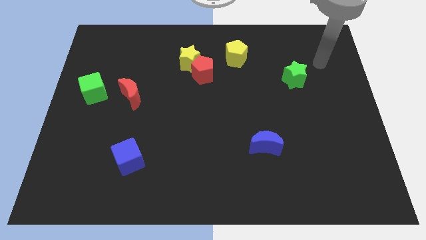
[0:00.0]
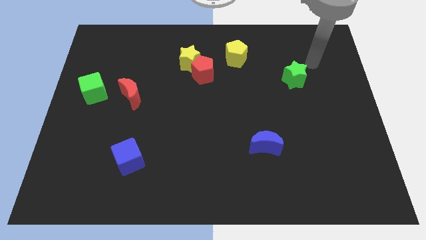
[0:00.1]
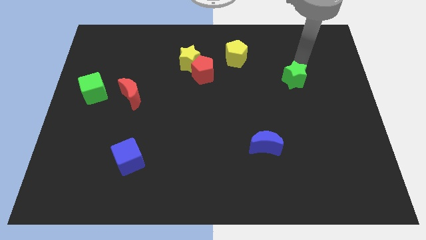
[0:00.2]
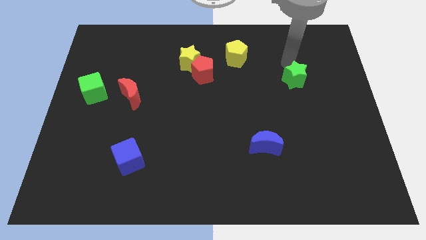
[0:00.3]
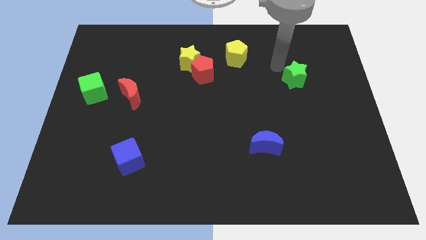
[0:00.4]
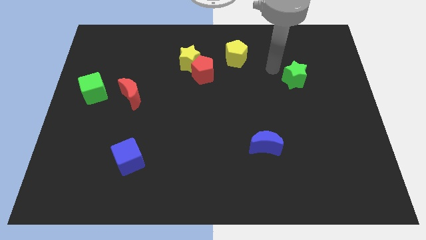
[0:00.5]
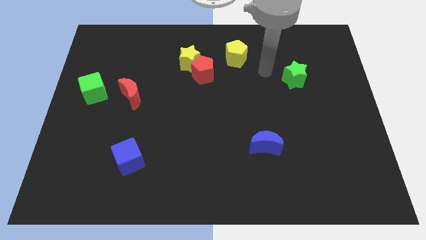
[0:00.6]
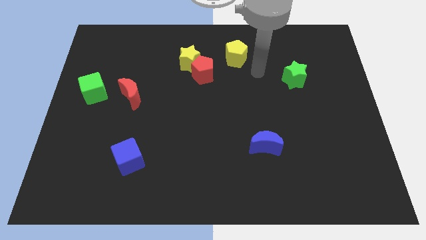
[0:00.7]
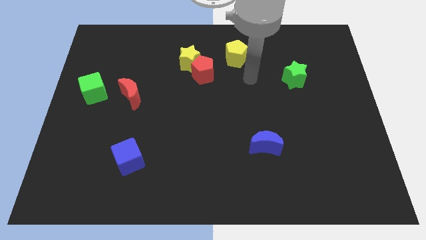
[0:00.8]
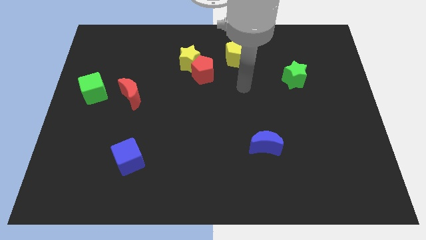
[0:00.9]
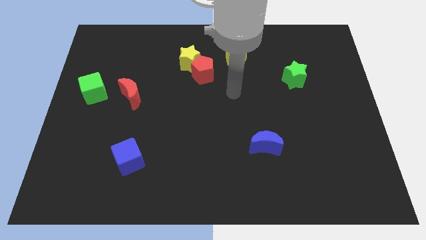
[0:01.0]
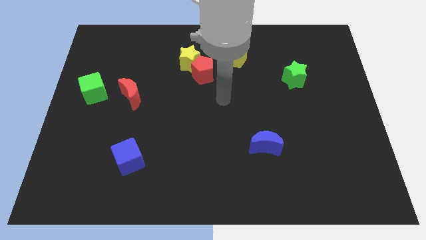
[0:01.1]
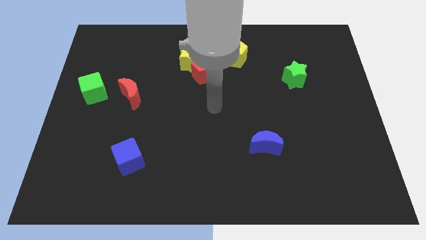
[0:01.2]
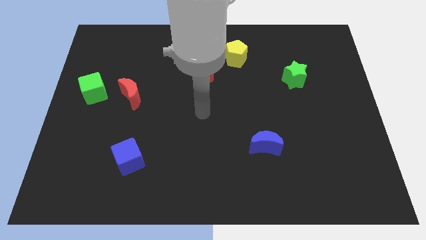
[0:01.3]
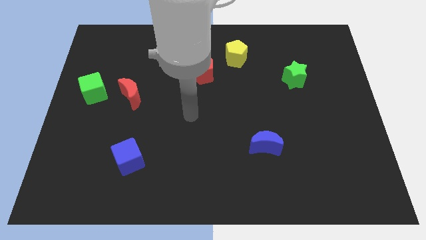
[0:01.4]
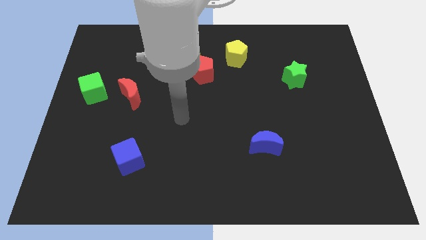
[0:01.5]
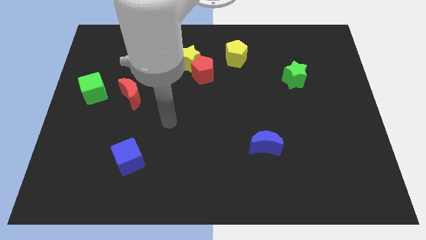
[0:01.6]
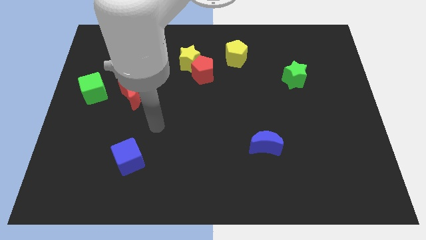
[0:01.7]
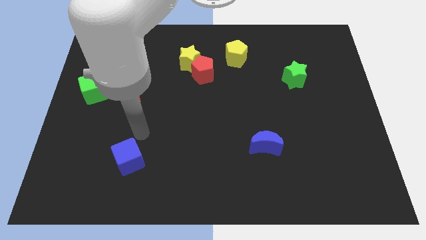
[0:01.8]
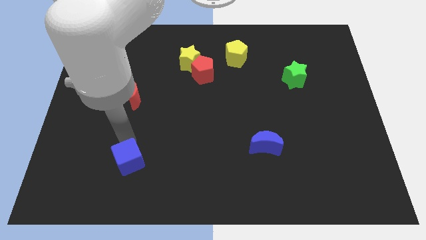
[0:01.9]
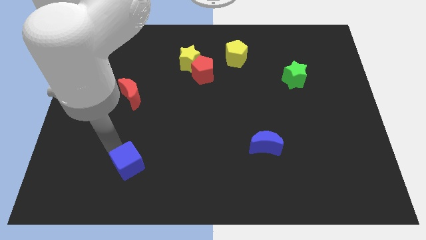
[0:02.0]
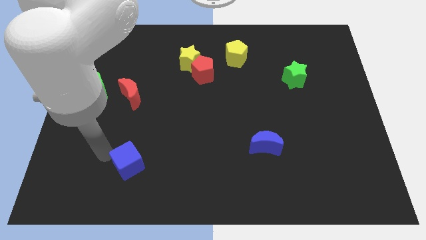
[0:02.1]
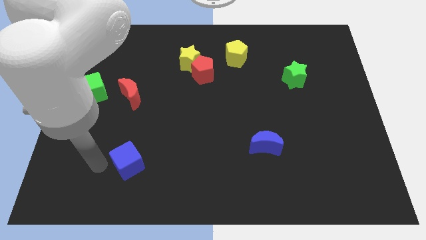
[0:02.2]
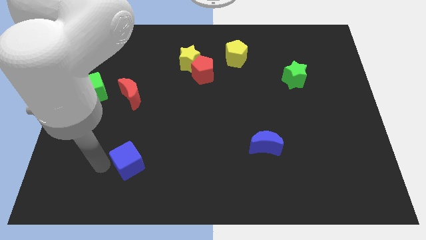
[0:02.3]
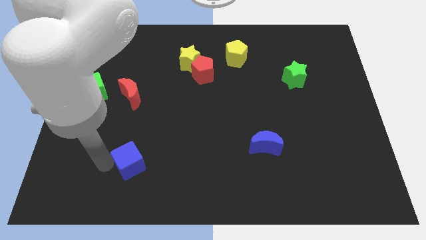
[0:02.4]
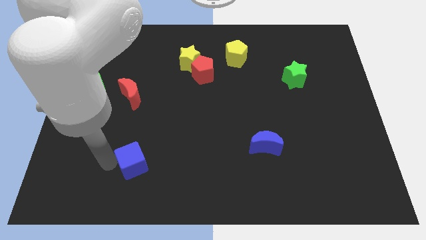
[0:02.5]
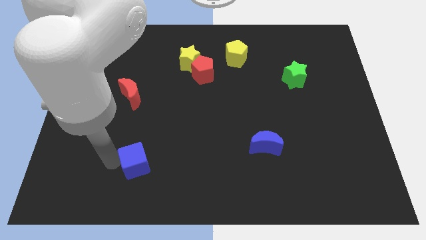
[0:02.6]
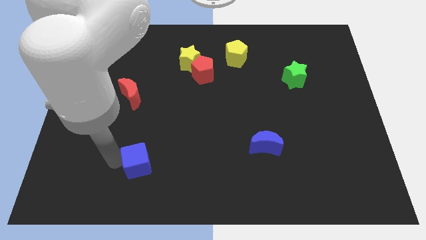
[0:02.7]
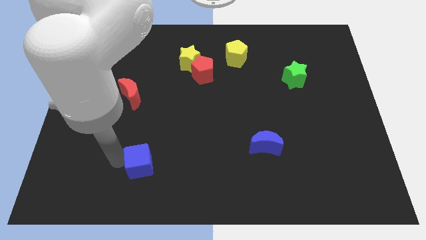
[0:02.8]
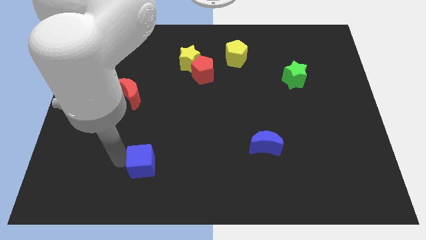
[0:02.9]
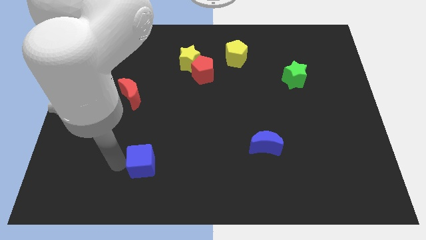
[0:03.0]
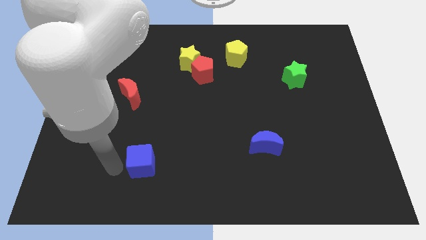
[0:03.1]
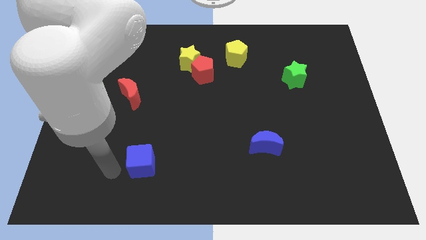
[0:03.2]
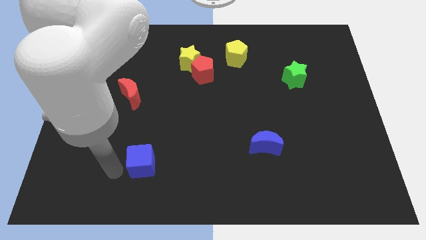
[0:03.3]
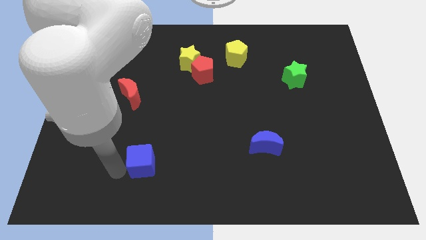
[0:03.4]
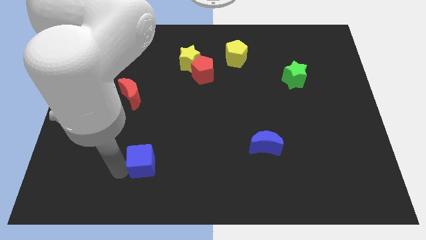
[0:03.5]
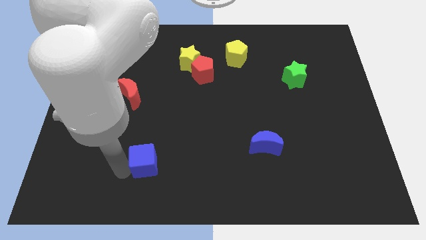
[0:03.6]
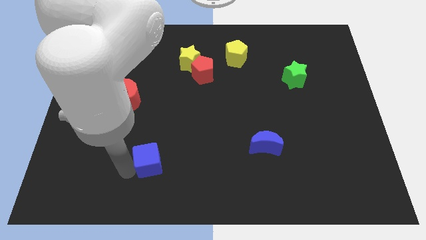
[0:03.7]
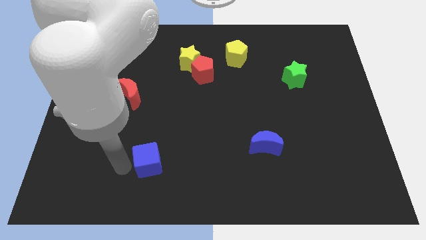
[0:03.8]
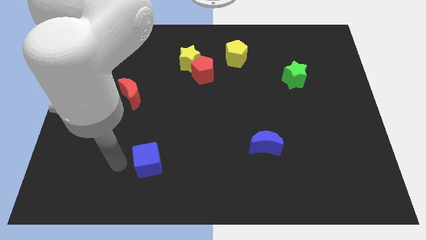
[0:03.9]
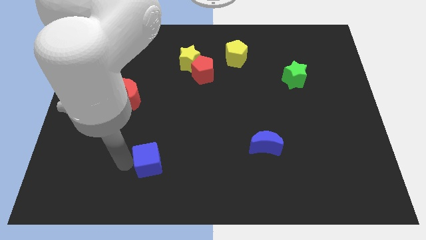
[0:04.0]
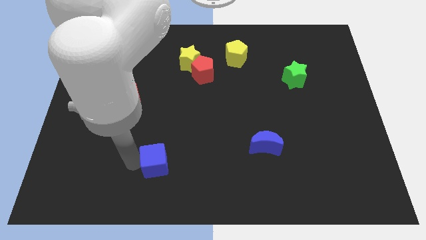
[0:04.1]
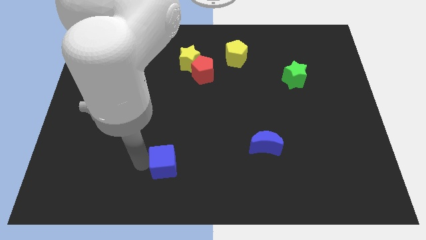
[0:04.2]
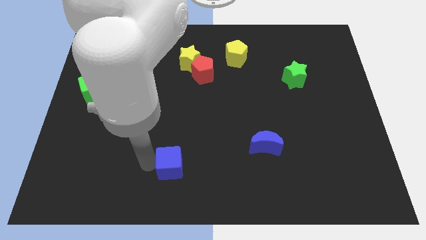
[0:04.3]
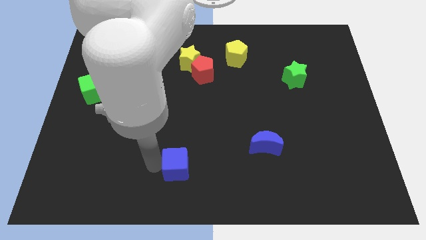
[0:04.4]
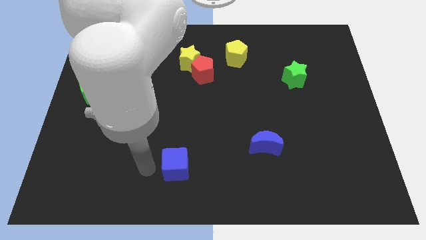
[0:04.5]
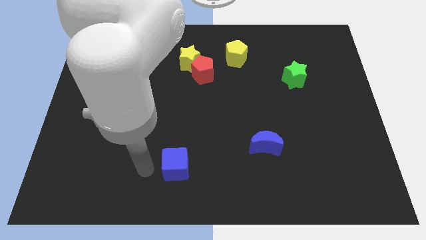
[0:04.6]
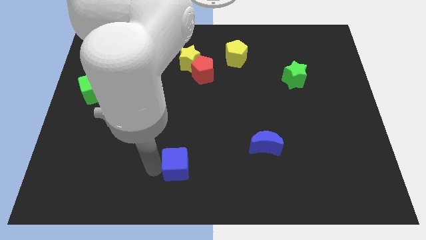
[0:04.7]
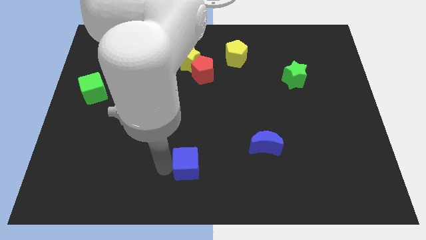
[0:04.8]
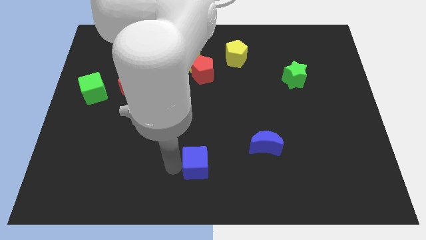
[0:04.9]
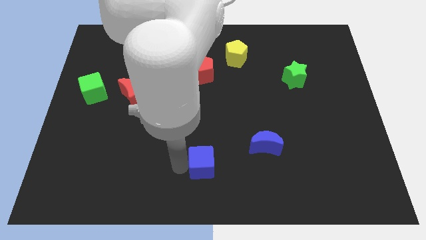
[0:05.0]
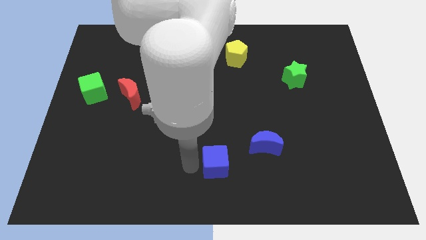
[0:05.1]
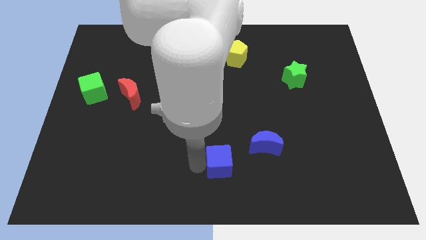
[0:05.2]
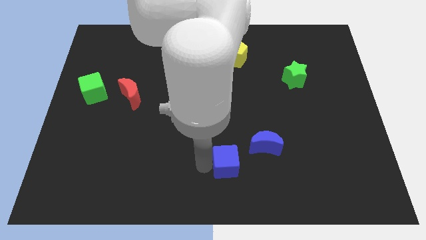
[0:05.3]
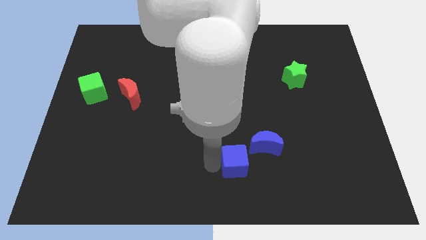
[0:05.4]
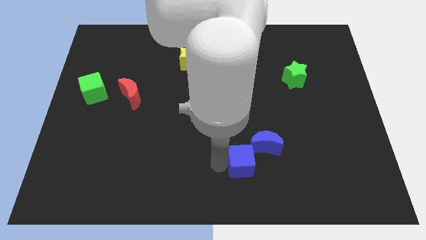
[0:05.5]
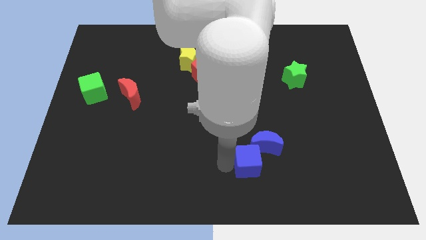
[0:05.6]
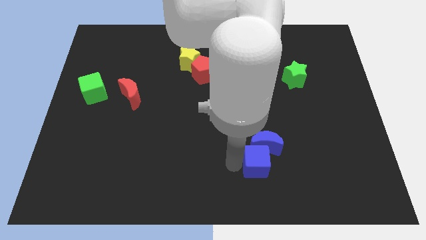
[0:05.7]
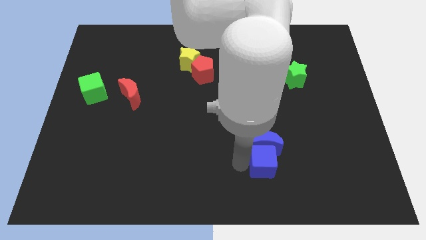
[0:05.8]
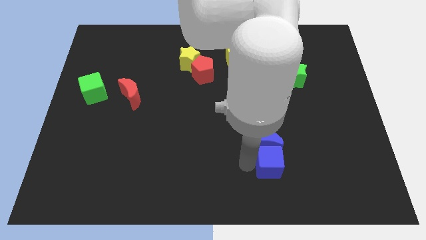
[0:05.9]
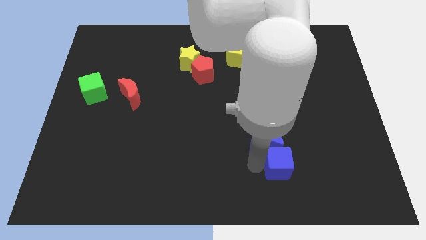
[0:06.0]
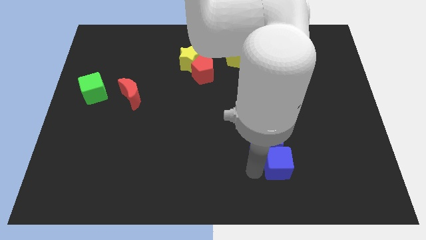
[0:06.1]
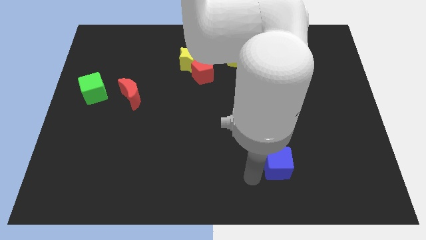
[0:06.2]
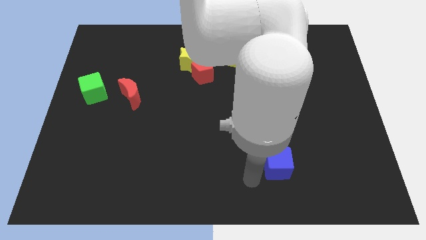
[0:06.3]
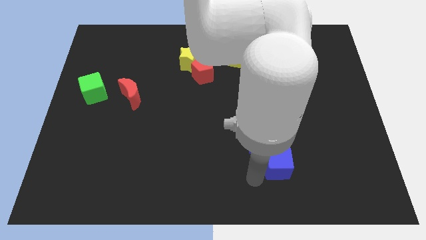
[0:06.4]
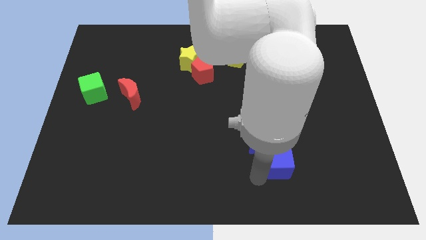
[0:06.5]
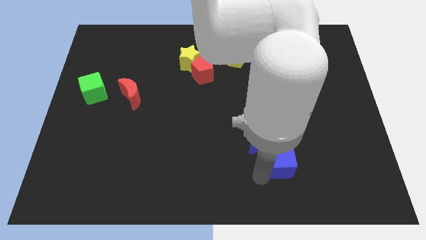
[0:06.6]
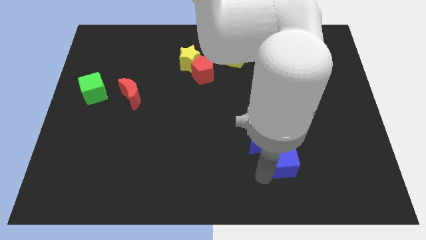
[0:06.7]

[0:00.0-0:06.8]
slide the blue cube to the right of the blue moon

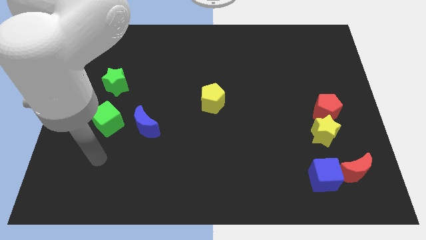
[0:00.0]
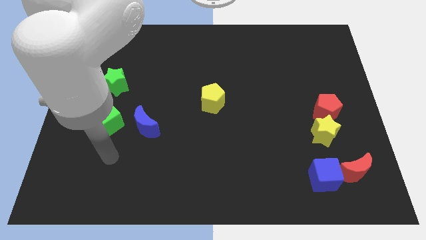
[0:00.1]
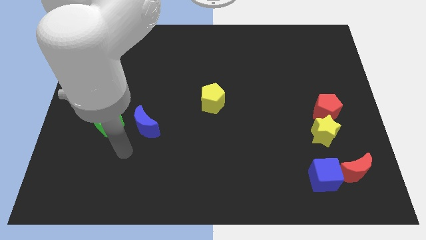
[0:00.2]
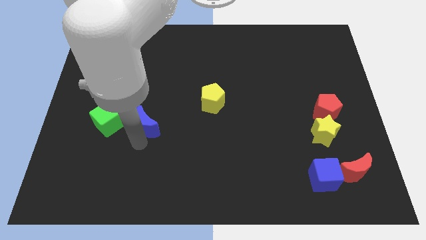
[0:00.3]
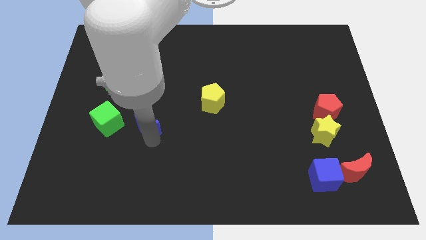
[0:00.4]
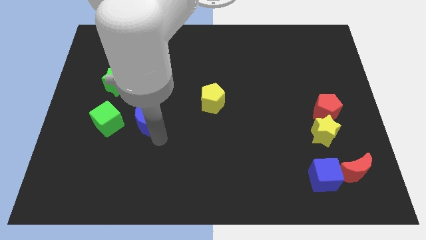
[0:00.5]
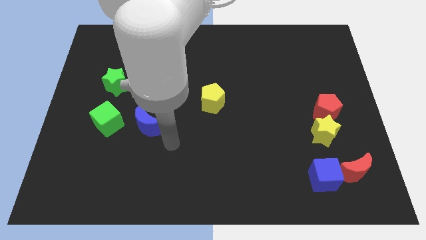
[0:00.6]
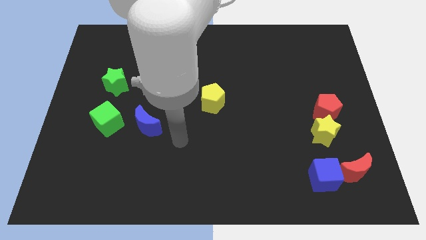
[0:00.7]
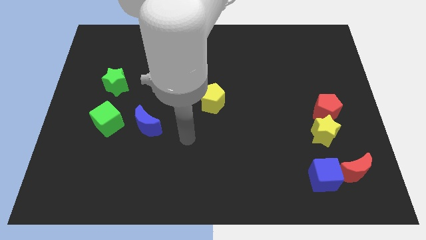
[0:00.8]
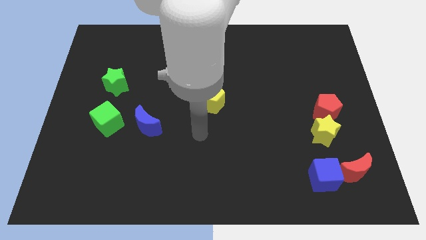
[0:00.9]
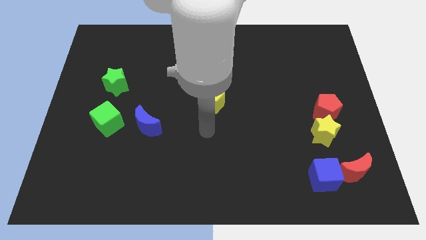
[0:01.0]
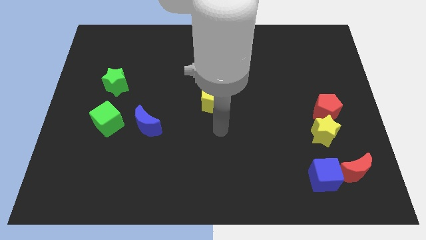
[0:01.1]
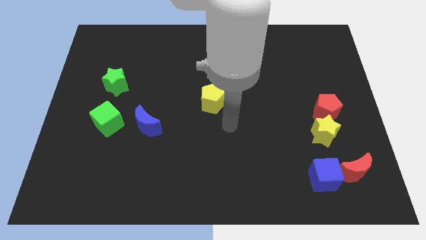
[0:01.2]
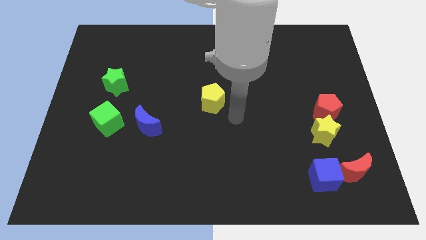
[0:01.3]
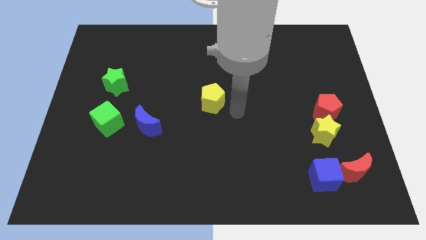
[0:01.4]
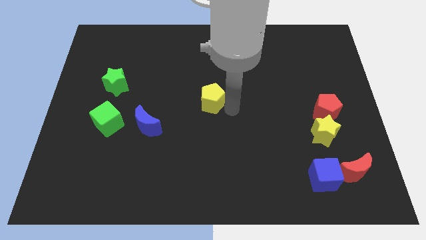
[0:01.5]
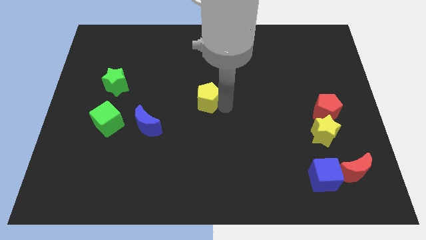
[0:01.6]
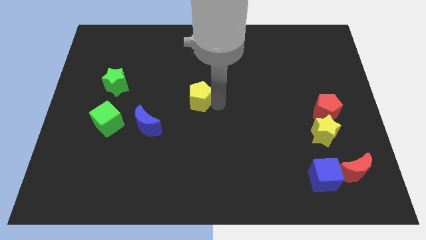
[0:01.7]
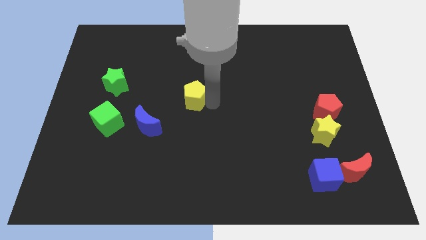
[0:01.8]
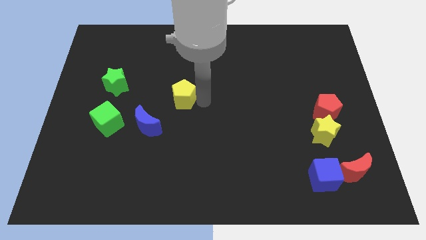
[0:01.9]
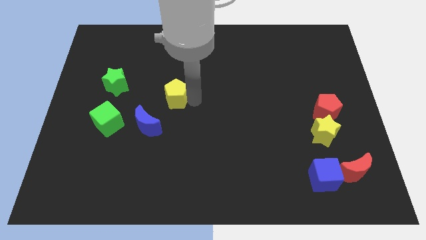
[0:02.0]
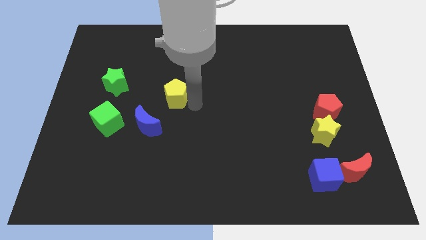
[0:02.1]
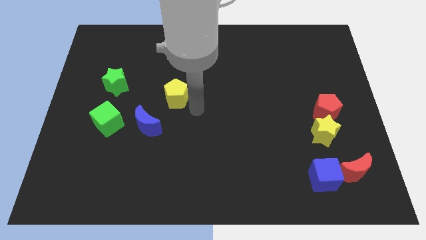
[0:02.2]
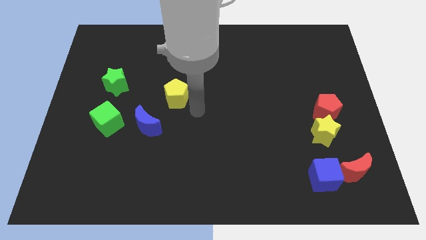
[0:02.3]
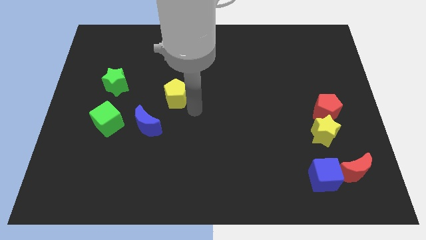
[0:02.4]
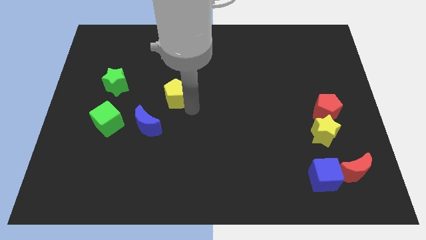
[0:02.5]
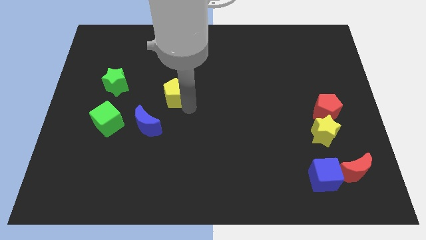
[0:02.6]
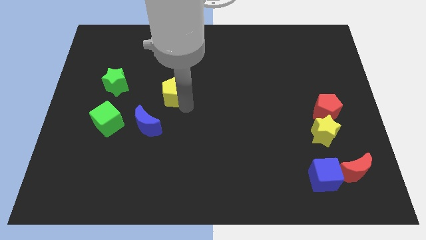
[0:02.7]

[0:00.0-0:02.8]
move the yellow pentagon to the right side of the green star
